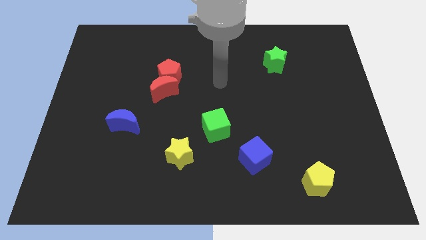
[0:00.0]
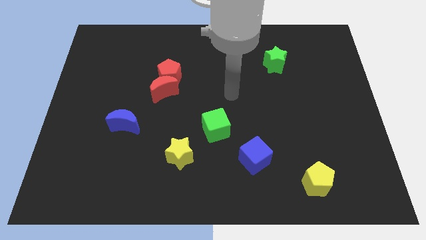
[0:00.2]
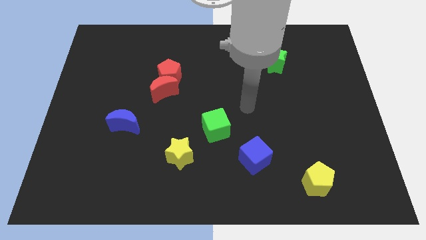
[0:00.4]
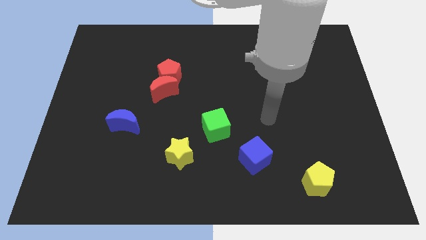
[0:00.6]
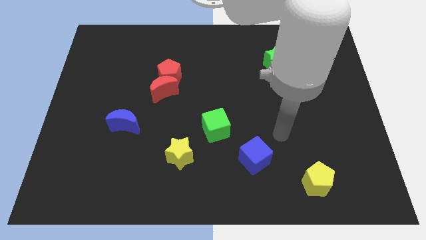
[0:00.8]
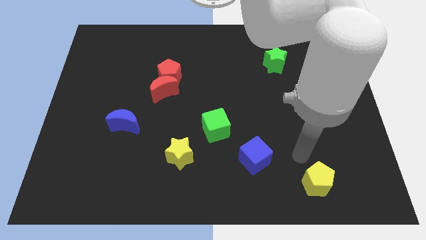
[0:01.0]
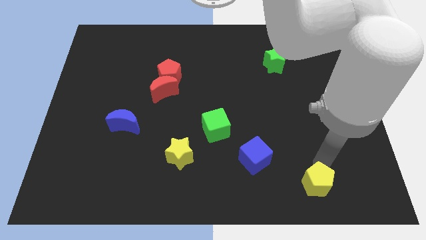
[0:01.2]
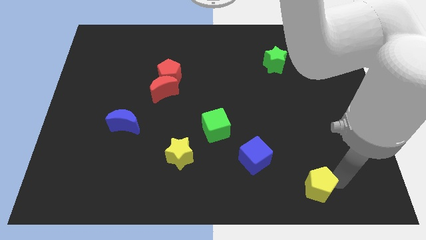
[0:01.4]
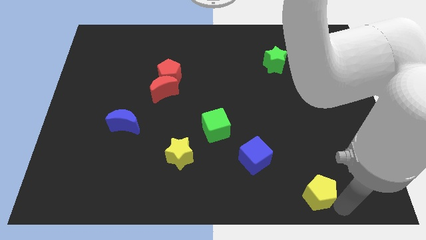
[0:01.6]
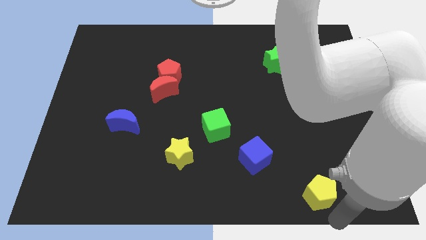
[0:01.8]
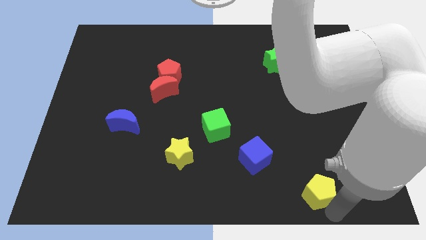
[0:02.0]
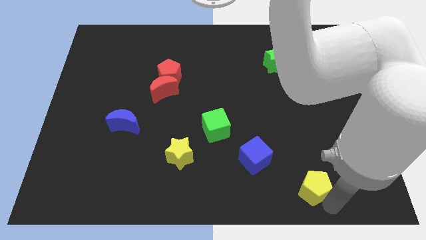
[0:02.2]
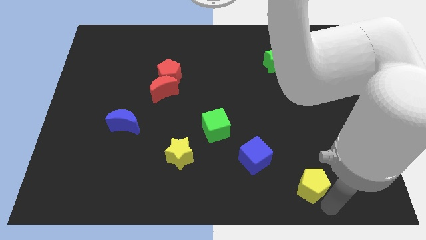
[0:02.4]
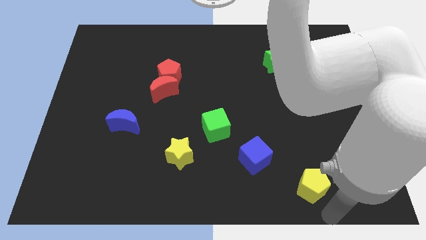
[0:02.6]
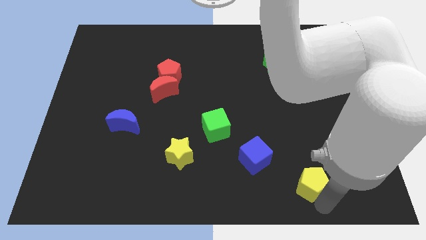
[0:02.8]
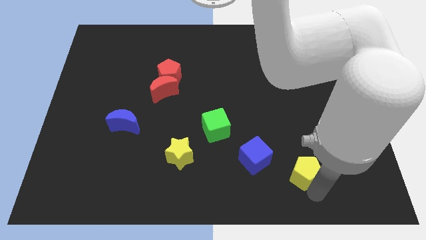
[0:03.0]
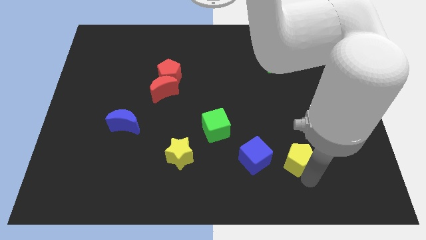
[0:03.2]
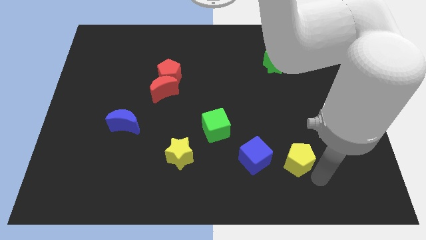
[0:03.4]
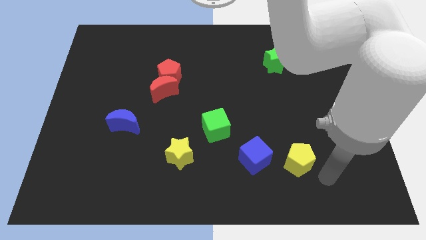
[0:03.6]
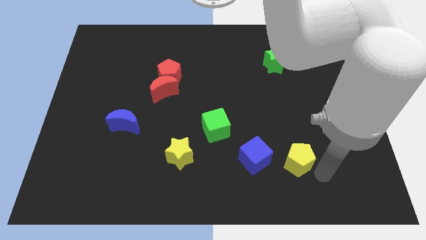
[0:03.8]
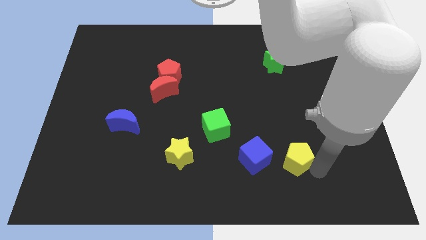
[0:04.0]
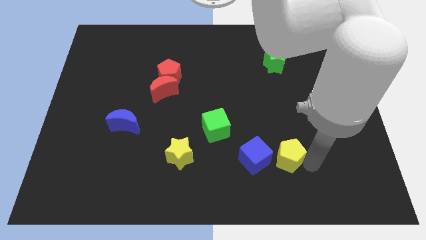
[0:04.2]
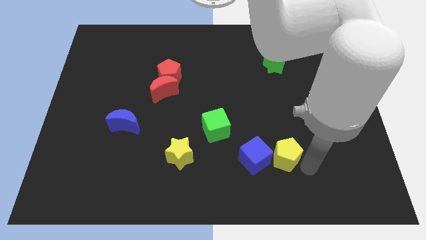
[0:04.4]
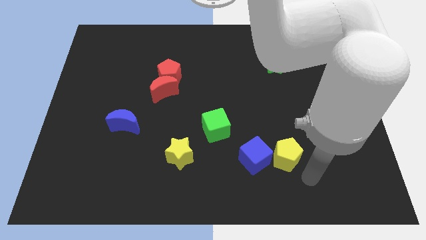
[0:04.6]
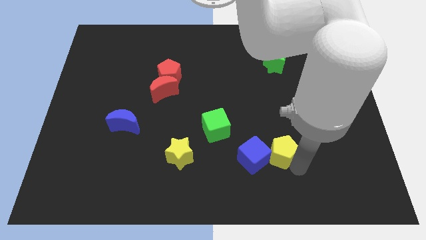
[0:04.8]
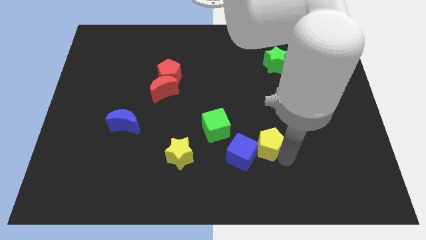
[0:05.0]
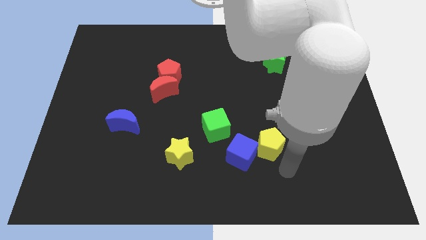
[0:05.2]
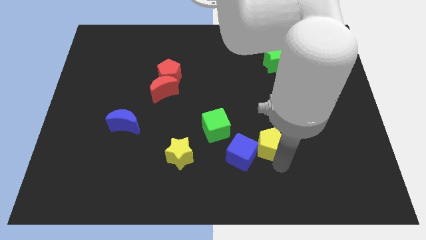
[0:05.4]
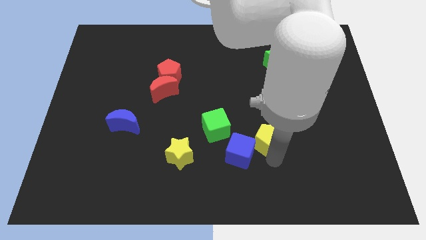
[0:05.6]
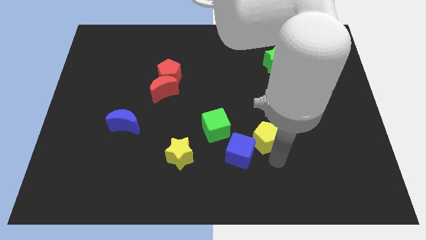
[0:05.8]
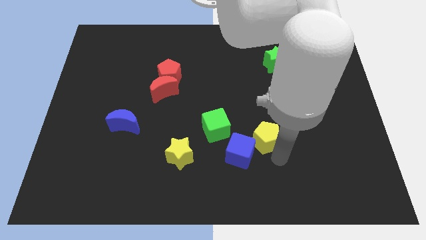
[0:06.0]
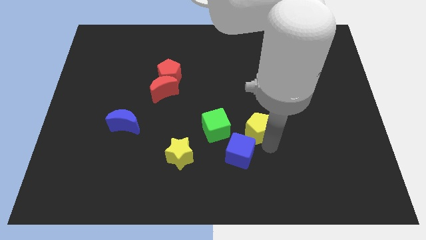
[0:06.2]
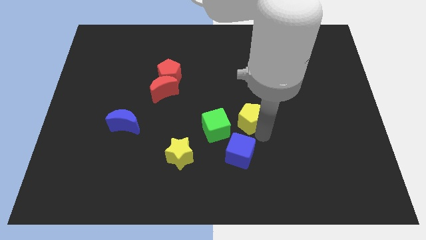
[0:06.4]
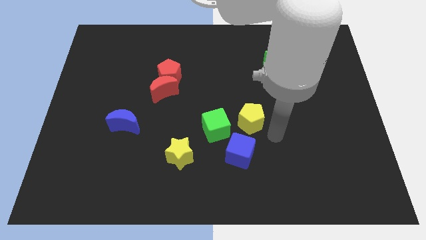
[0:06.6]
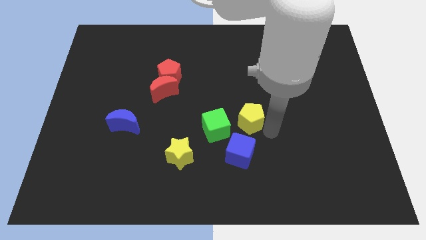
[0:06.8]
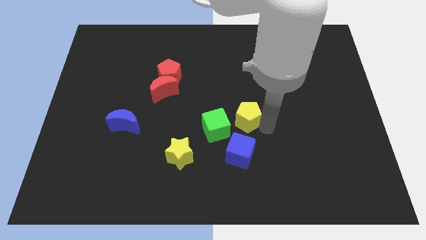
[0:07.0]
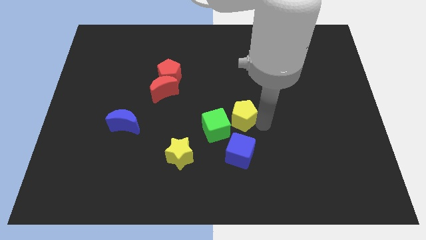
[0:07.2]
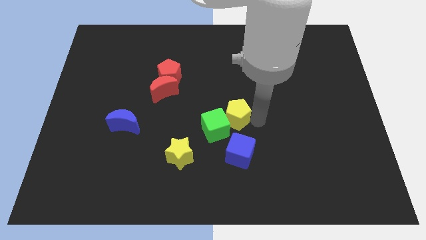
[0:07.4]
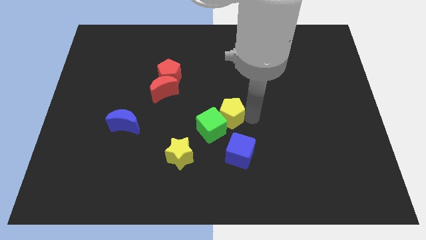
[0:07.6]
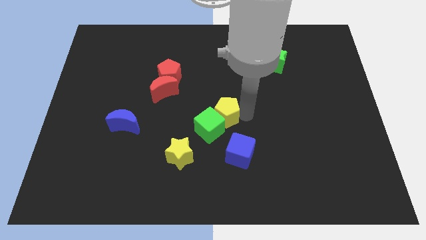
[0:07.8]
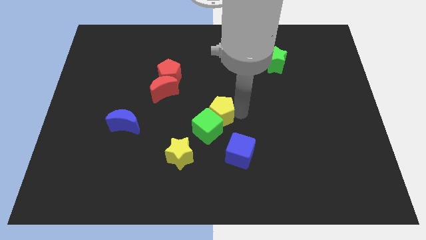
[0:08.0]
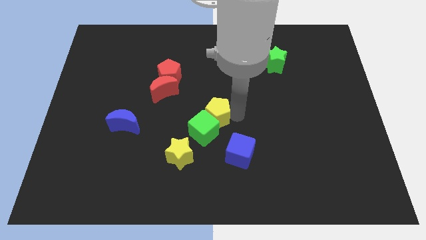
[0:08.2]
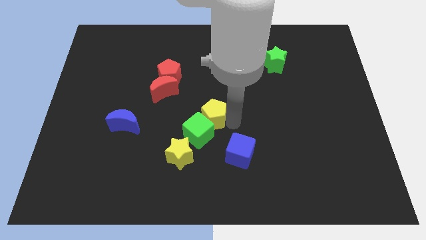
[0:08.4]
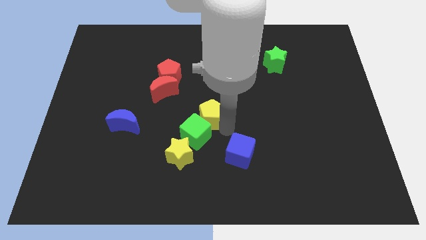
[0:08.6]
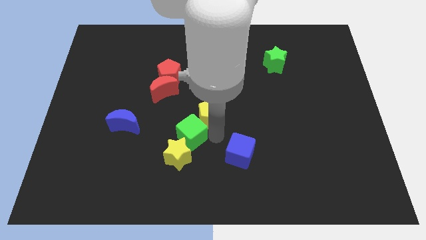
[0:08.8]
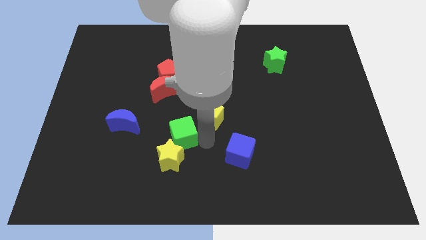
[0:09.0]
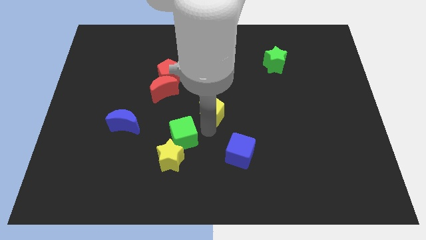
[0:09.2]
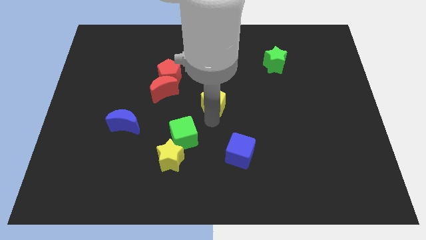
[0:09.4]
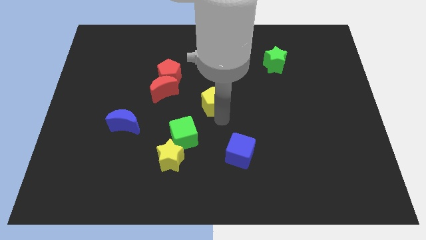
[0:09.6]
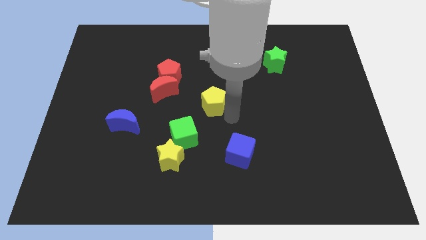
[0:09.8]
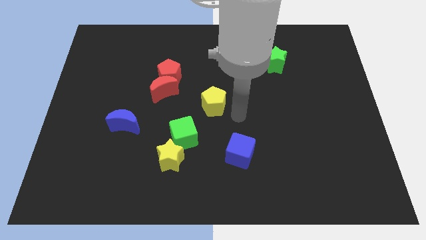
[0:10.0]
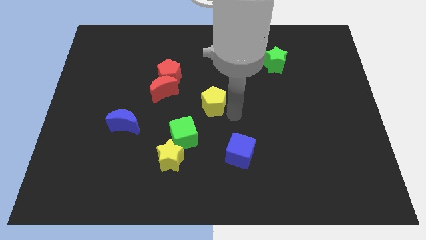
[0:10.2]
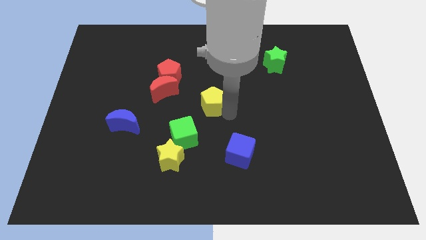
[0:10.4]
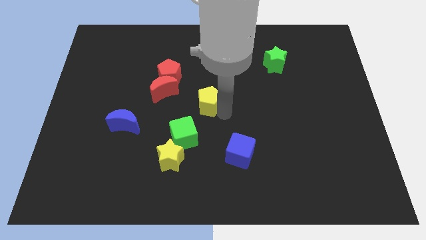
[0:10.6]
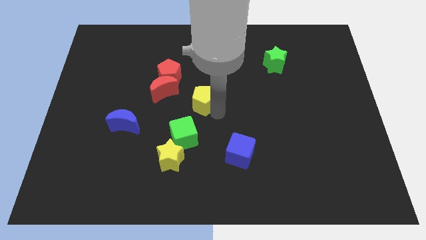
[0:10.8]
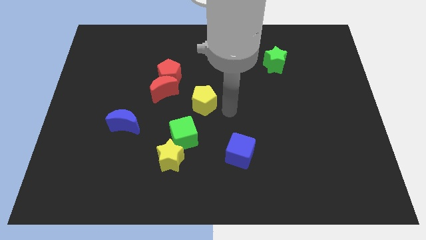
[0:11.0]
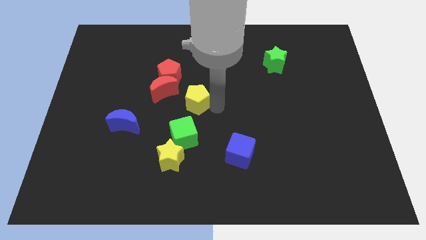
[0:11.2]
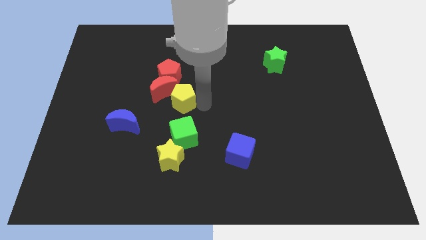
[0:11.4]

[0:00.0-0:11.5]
push the yellow pentagon towards the red moon

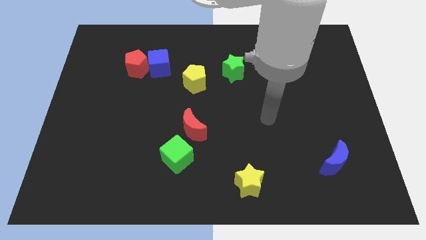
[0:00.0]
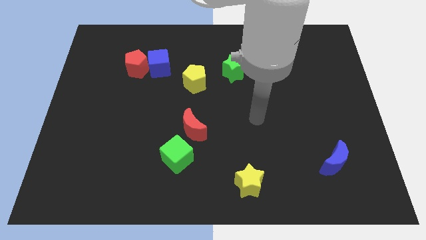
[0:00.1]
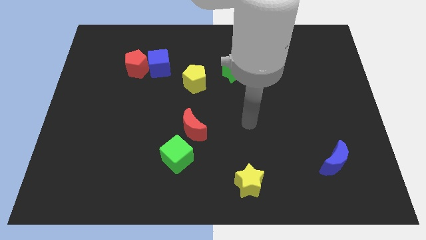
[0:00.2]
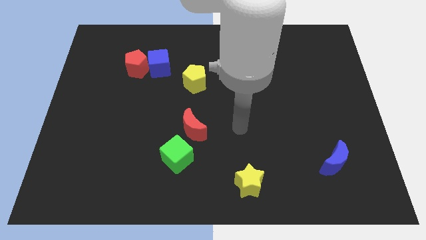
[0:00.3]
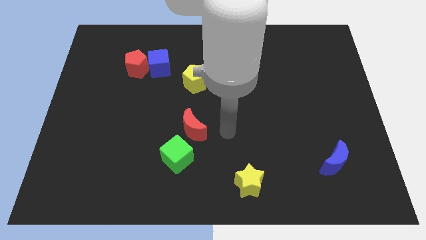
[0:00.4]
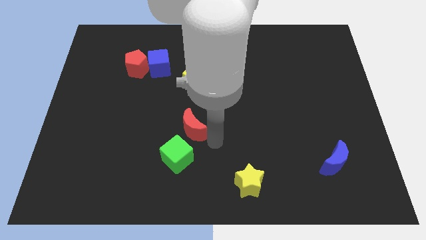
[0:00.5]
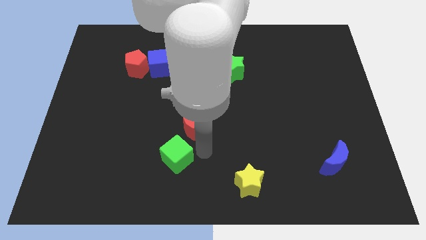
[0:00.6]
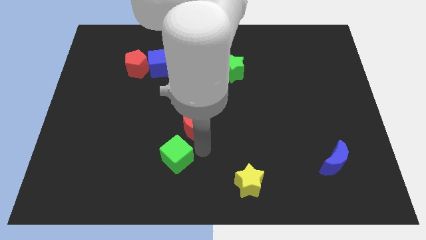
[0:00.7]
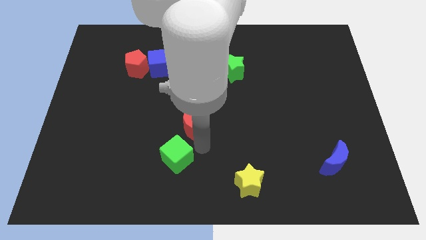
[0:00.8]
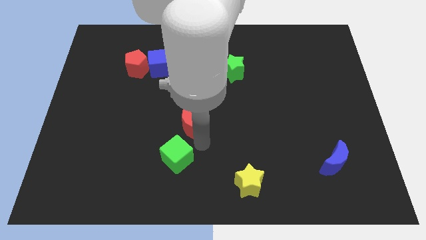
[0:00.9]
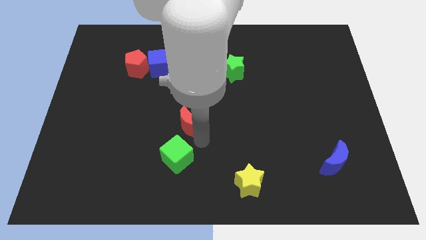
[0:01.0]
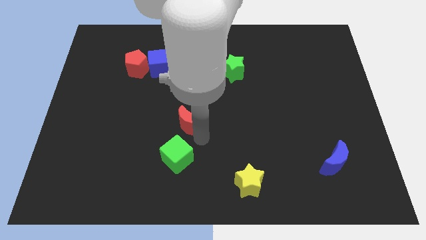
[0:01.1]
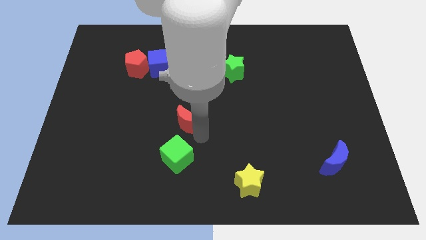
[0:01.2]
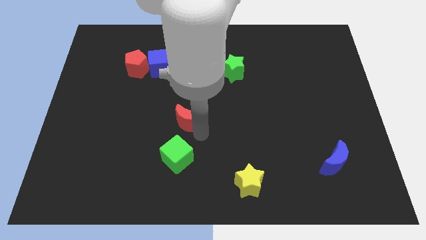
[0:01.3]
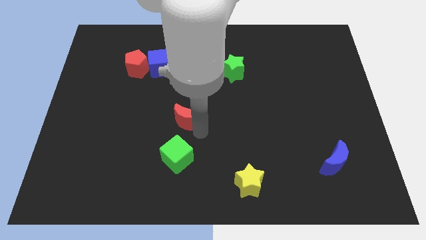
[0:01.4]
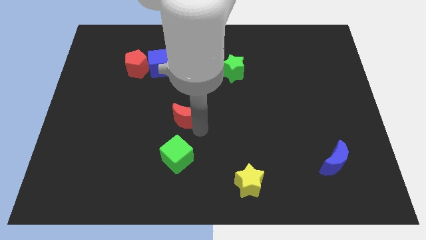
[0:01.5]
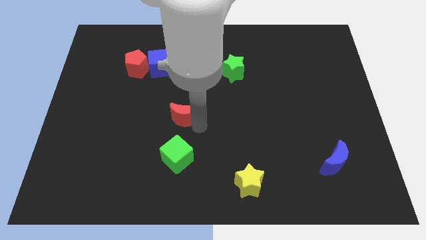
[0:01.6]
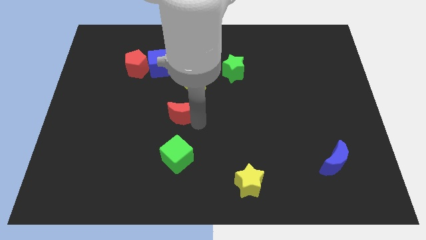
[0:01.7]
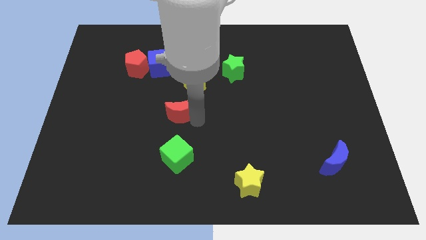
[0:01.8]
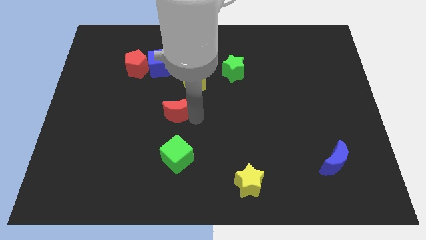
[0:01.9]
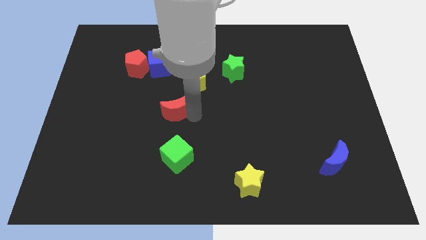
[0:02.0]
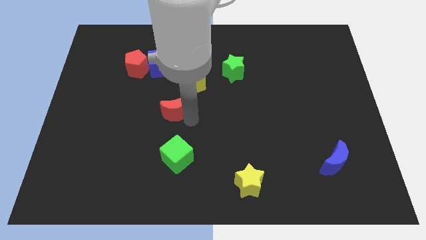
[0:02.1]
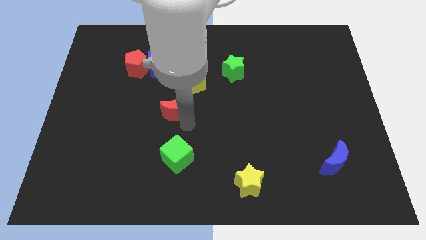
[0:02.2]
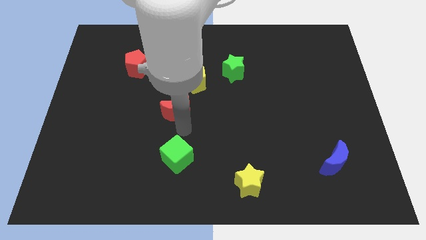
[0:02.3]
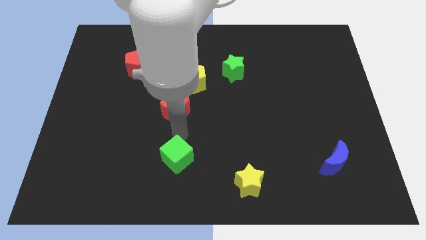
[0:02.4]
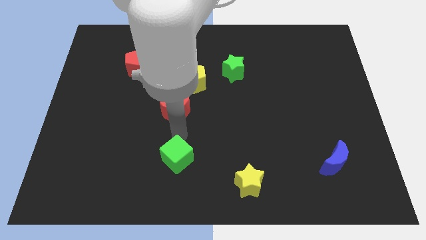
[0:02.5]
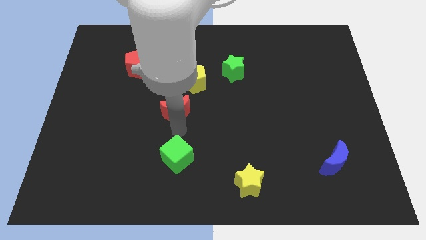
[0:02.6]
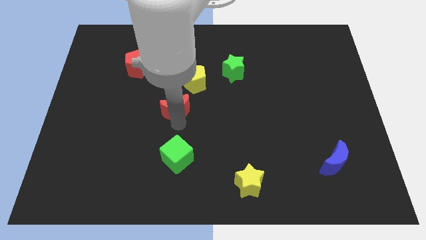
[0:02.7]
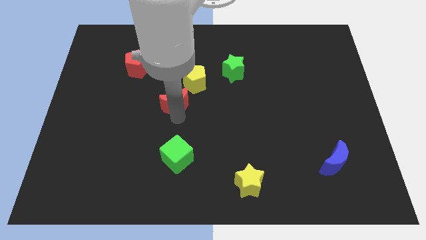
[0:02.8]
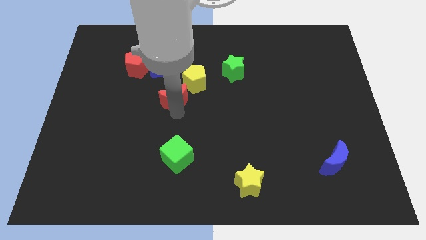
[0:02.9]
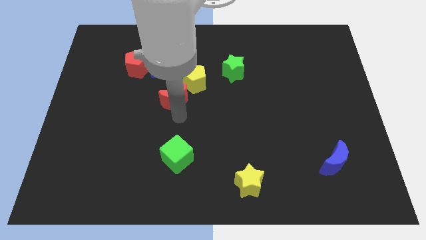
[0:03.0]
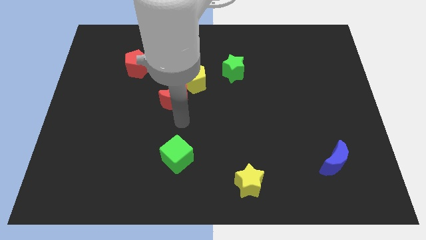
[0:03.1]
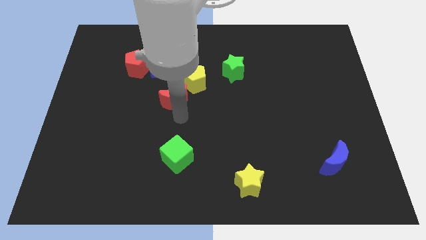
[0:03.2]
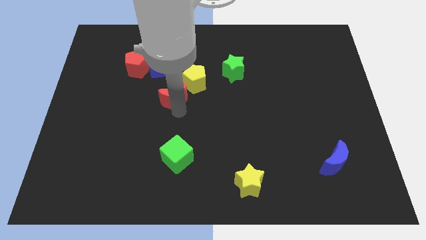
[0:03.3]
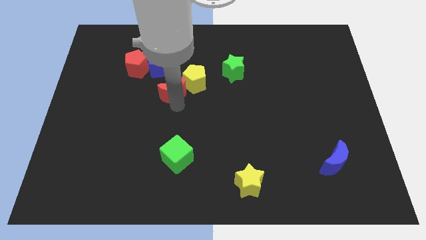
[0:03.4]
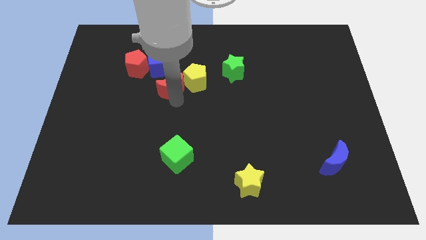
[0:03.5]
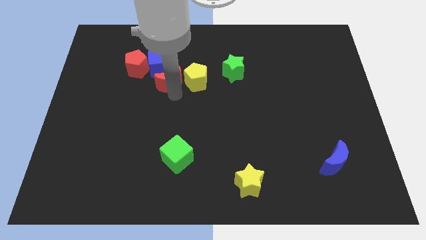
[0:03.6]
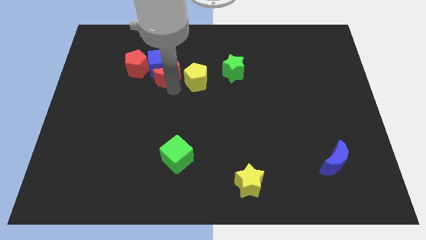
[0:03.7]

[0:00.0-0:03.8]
push the red moon next to the blue cube
